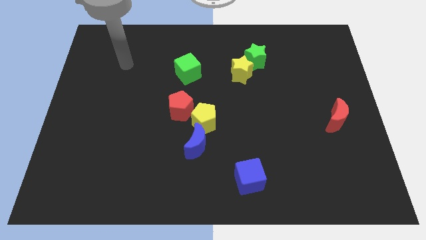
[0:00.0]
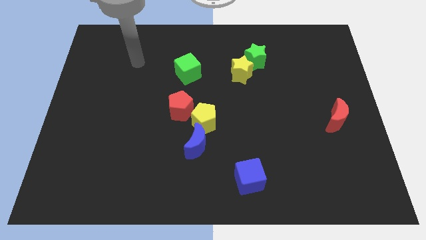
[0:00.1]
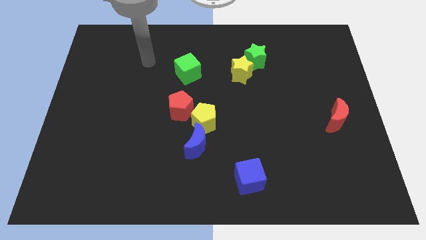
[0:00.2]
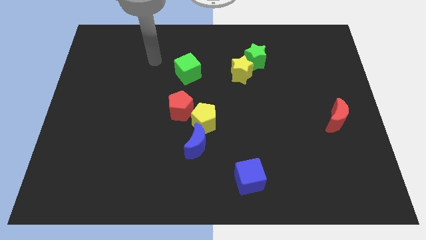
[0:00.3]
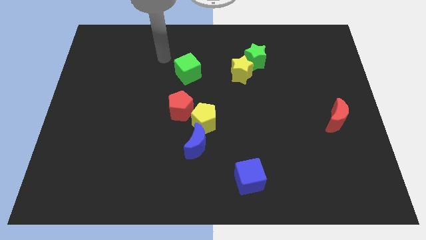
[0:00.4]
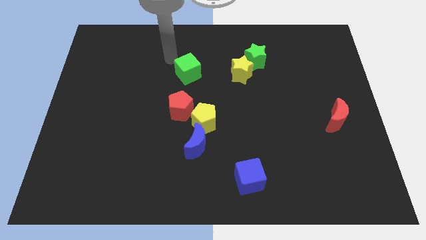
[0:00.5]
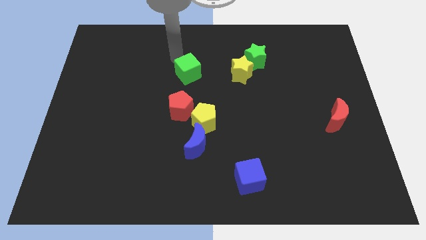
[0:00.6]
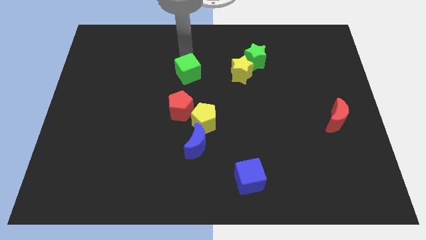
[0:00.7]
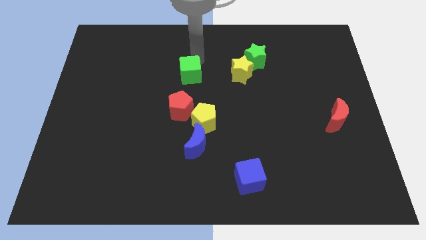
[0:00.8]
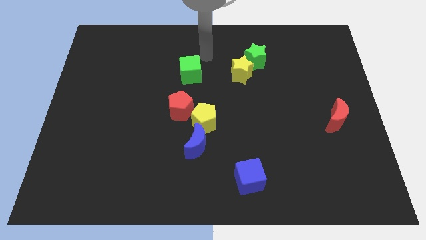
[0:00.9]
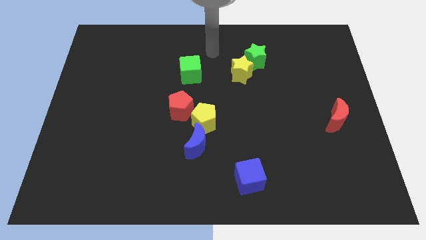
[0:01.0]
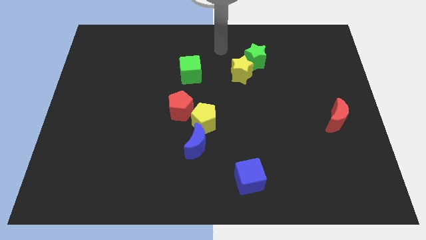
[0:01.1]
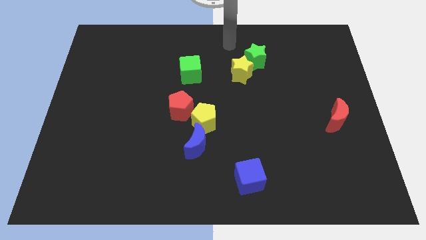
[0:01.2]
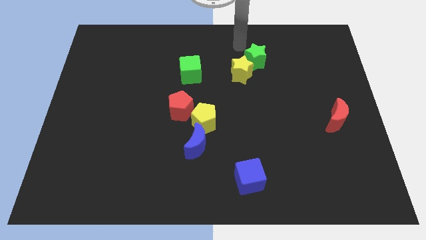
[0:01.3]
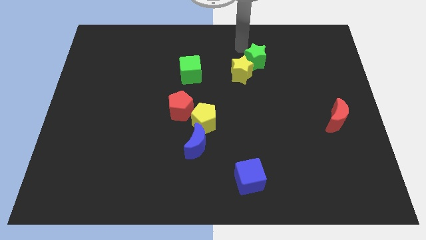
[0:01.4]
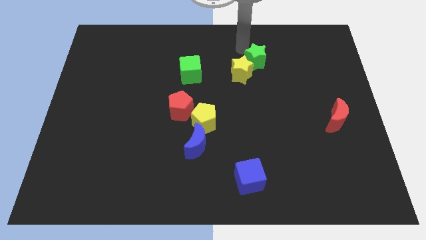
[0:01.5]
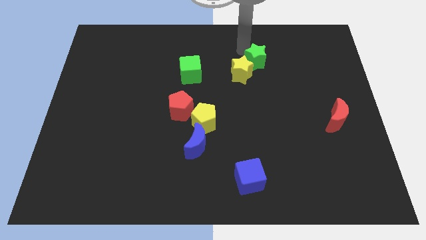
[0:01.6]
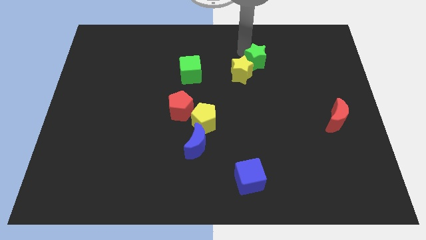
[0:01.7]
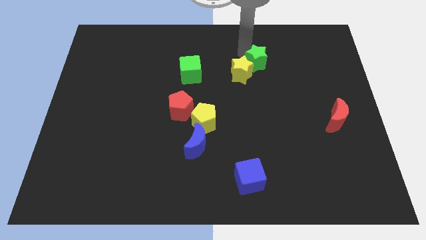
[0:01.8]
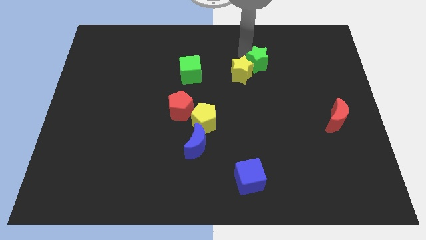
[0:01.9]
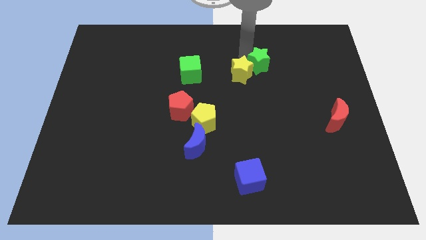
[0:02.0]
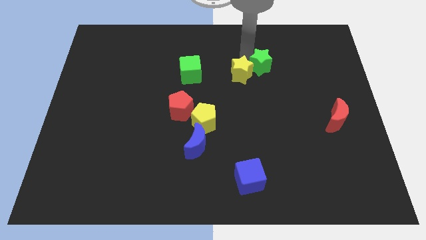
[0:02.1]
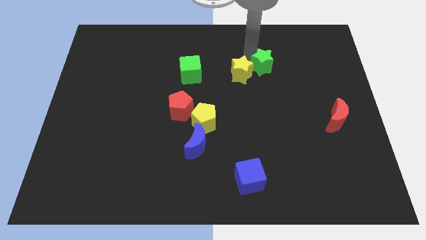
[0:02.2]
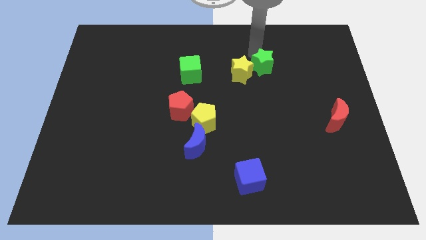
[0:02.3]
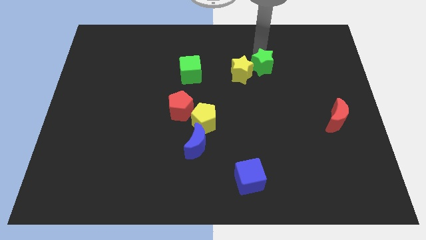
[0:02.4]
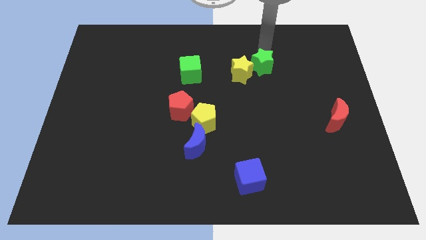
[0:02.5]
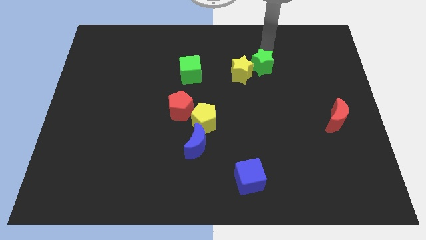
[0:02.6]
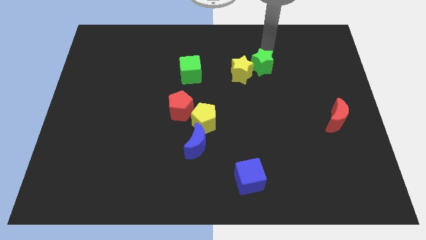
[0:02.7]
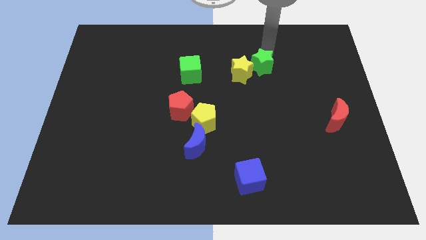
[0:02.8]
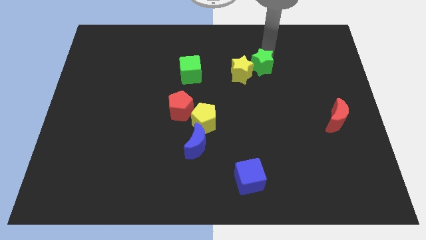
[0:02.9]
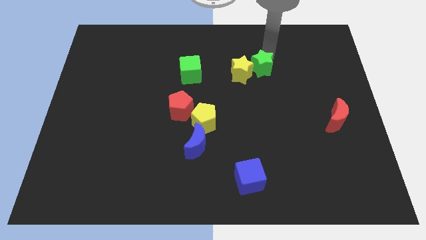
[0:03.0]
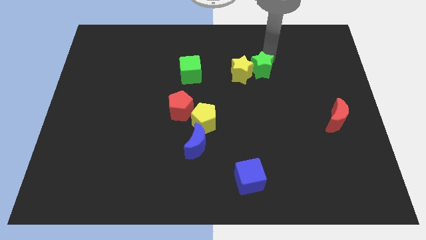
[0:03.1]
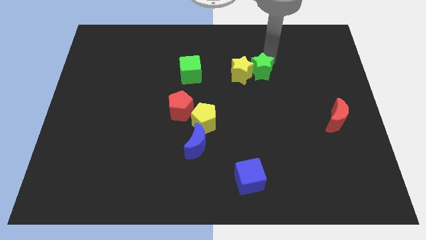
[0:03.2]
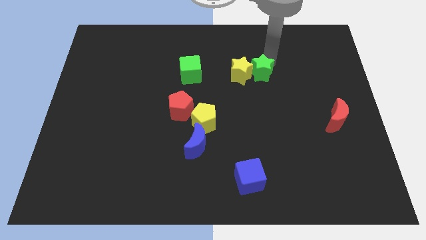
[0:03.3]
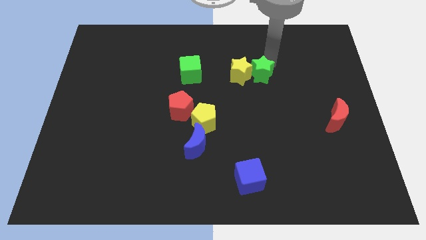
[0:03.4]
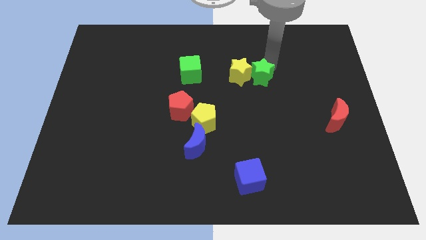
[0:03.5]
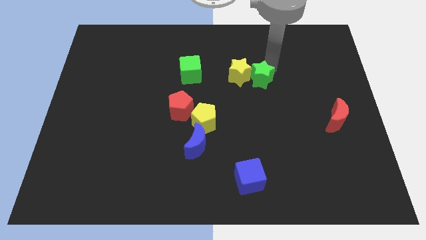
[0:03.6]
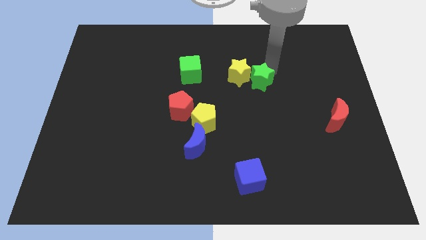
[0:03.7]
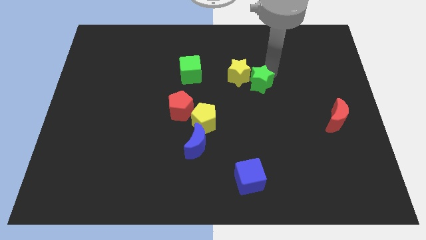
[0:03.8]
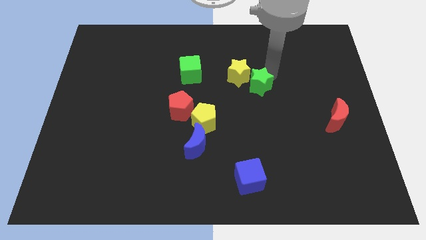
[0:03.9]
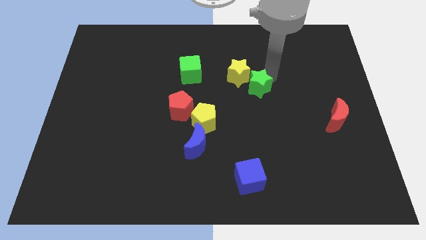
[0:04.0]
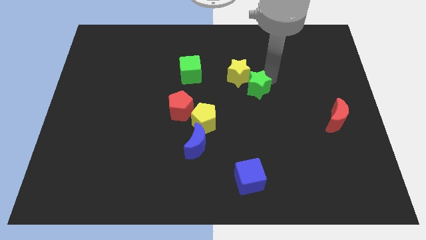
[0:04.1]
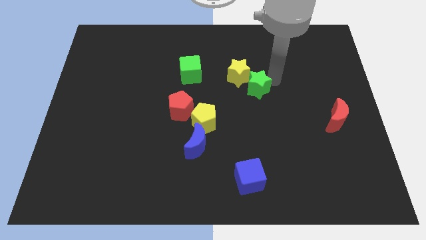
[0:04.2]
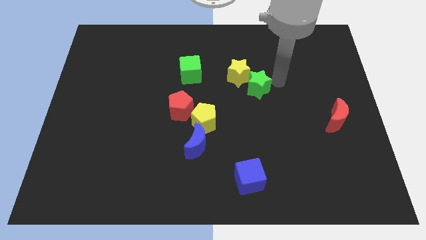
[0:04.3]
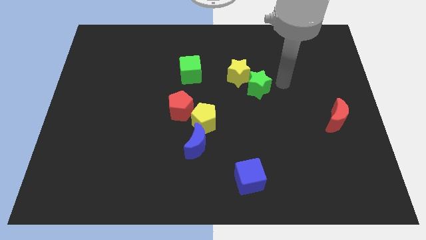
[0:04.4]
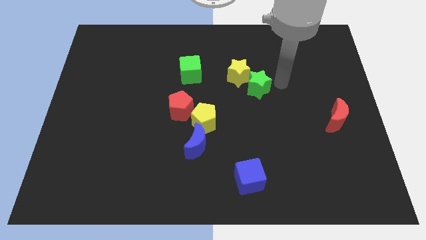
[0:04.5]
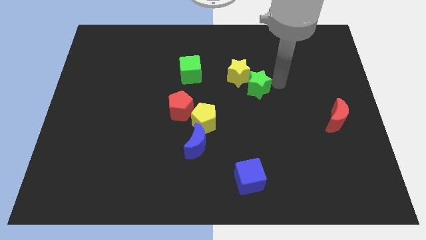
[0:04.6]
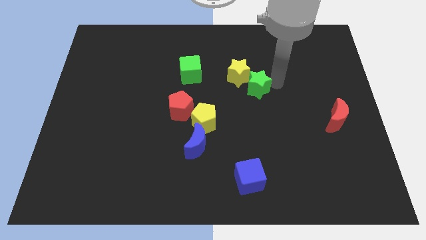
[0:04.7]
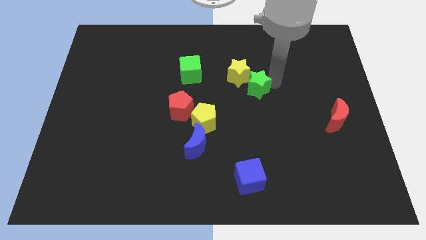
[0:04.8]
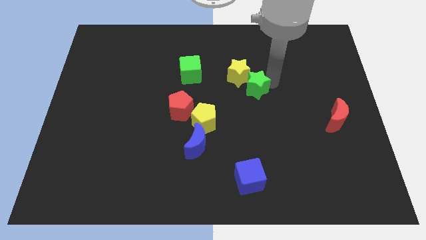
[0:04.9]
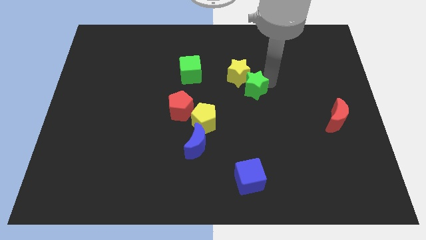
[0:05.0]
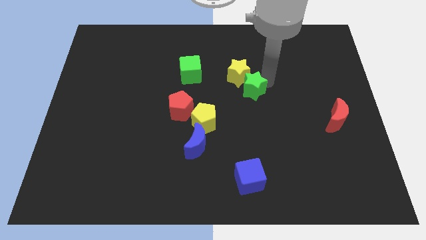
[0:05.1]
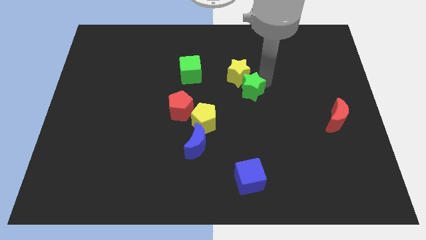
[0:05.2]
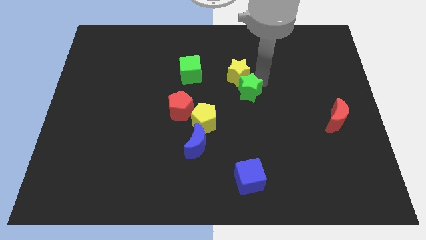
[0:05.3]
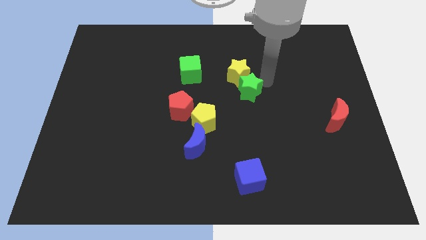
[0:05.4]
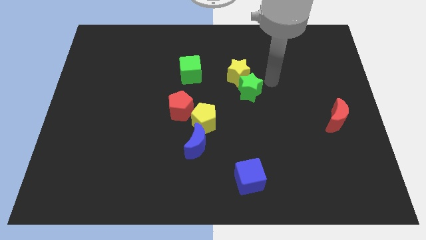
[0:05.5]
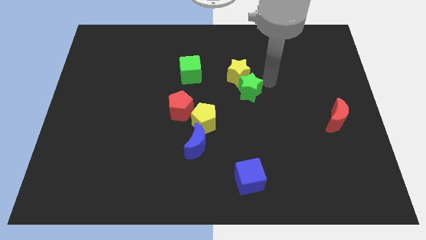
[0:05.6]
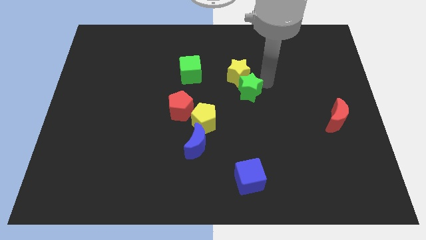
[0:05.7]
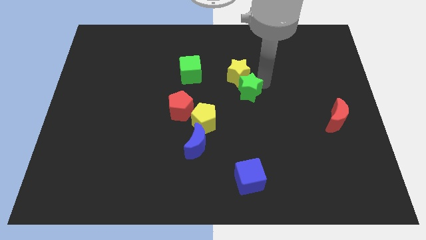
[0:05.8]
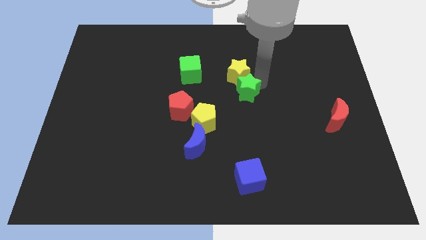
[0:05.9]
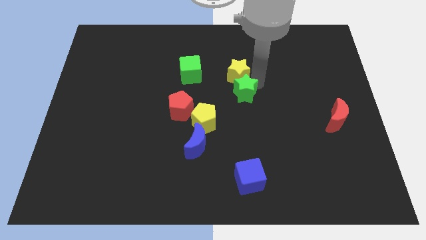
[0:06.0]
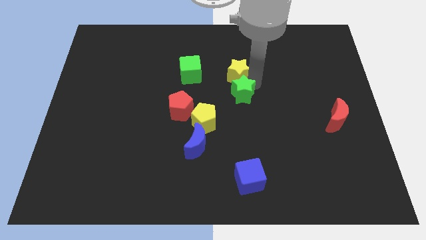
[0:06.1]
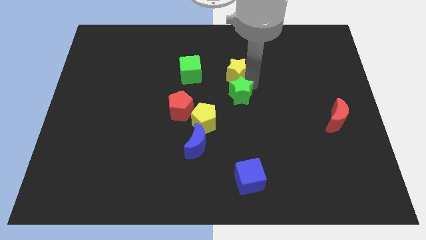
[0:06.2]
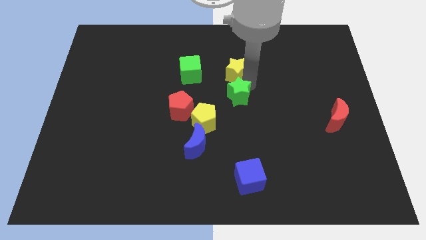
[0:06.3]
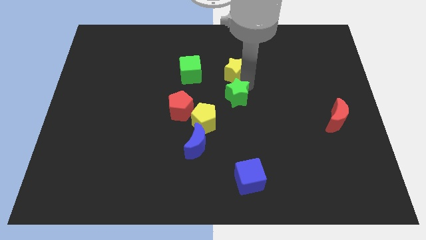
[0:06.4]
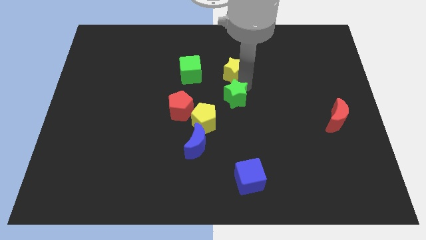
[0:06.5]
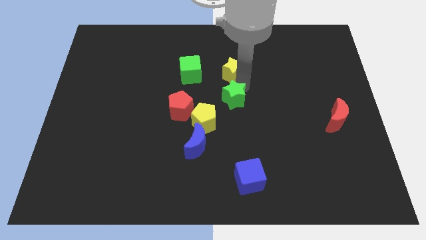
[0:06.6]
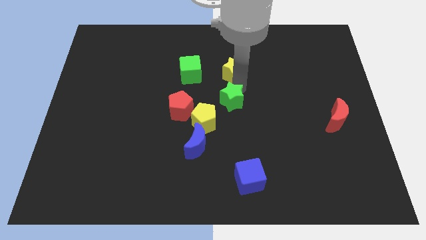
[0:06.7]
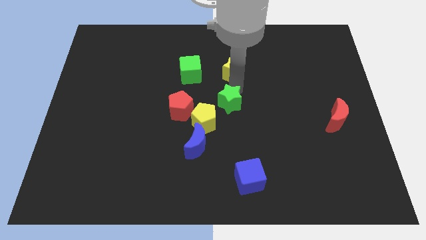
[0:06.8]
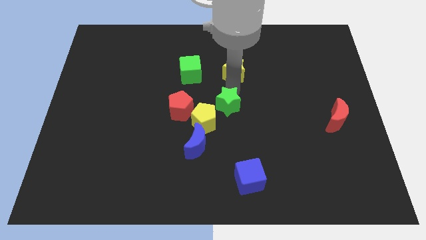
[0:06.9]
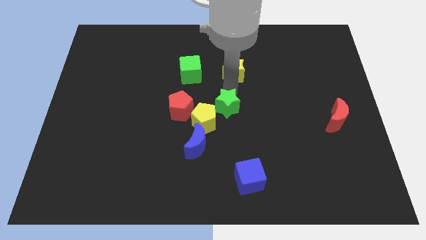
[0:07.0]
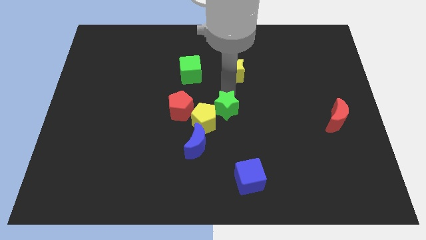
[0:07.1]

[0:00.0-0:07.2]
slide the green star close to the yellow pentagon

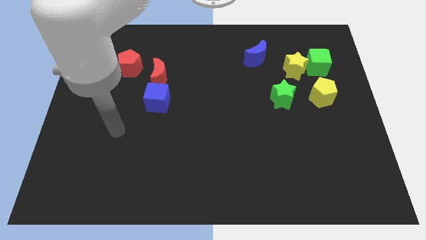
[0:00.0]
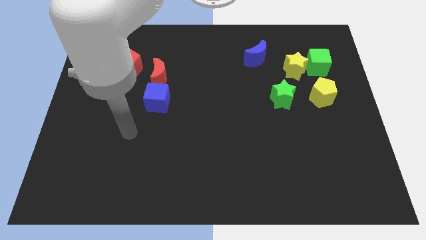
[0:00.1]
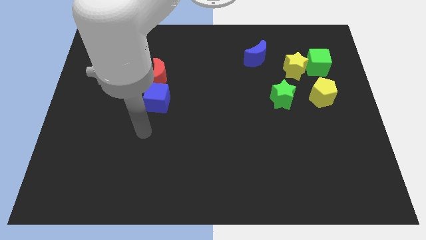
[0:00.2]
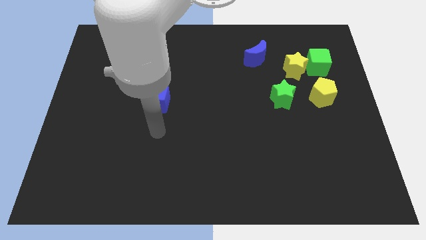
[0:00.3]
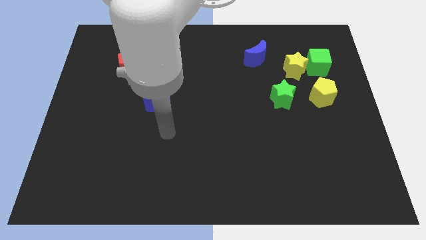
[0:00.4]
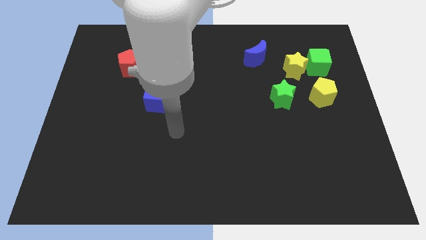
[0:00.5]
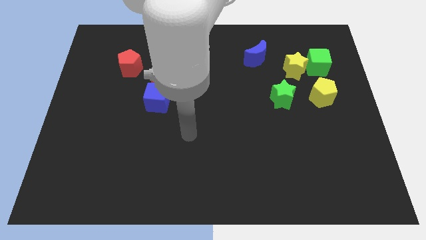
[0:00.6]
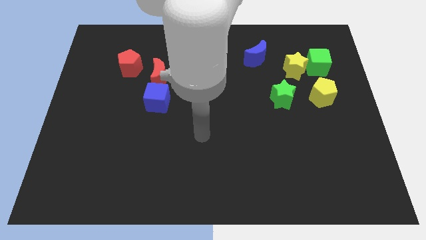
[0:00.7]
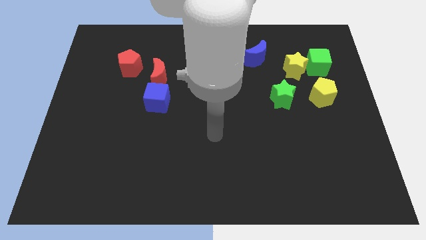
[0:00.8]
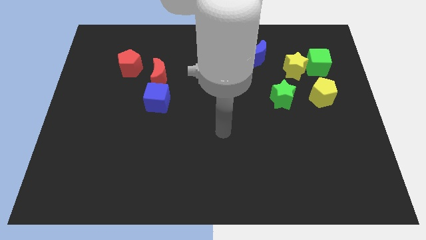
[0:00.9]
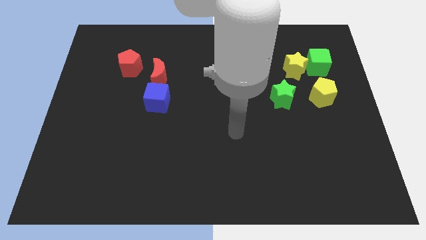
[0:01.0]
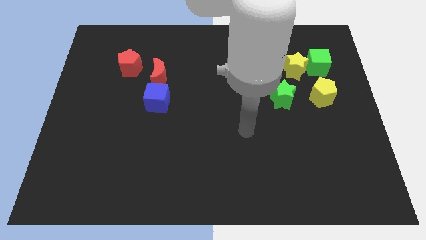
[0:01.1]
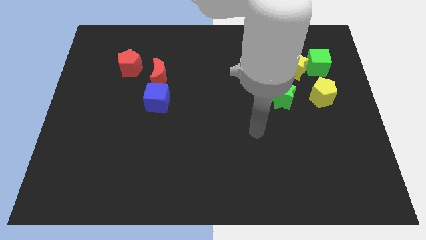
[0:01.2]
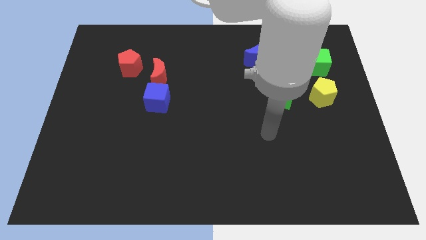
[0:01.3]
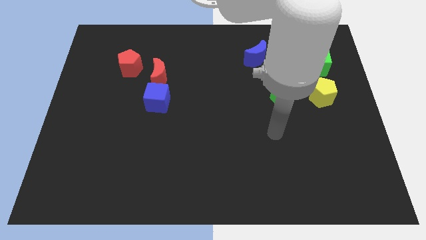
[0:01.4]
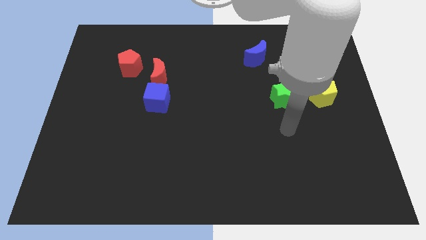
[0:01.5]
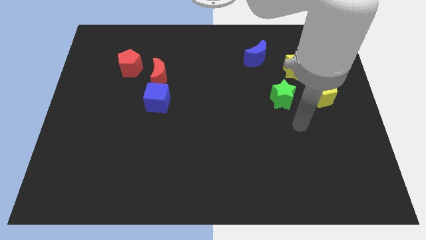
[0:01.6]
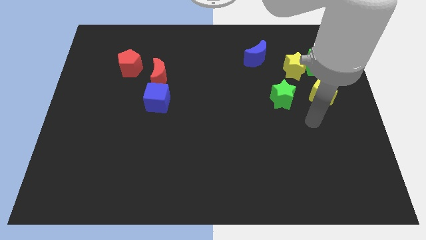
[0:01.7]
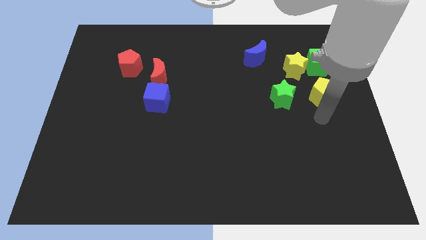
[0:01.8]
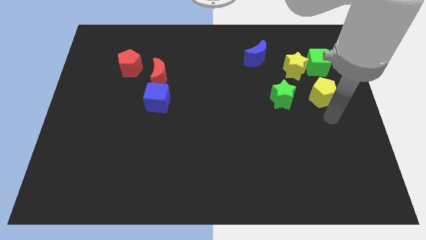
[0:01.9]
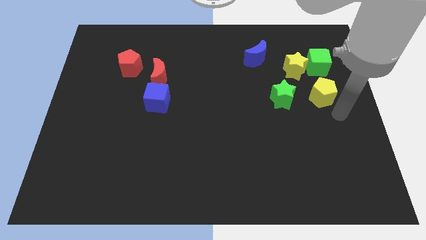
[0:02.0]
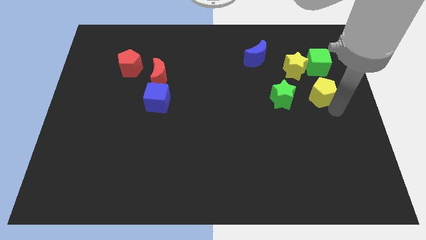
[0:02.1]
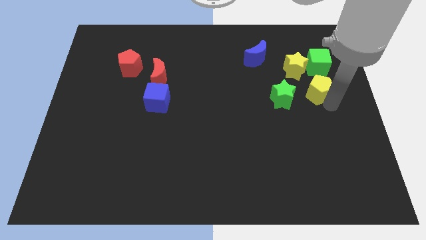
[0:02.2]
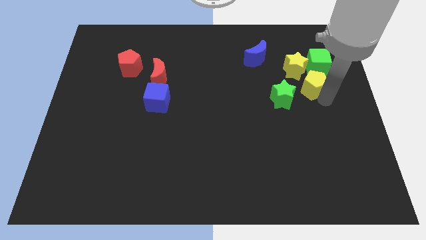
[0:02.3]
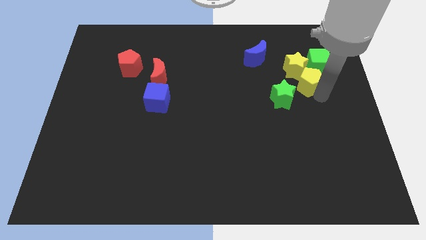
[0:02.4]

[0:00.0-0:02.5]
slide the yellow pentagon close to the yellow star
